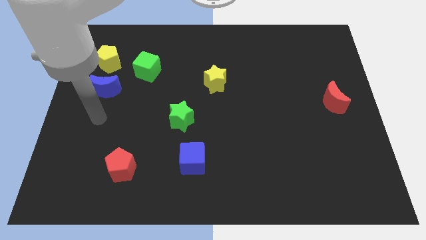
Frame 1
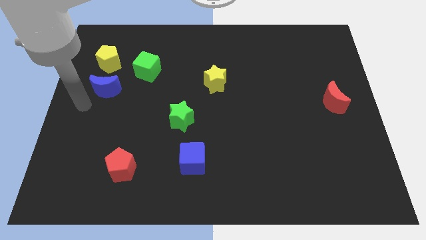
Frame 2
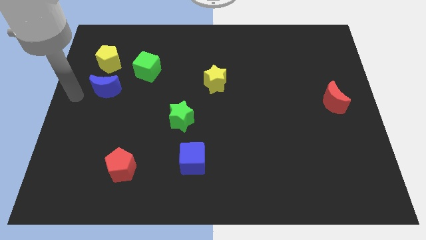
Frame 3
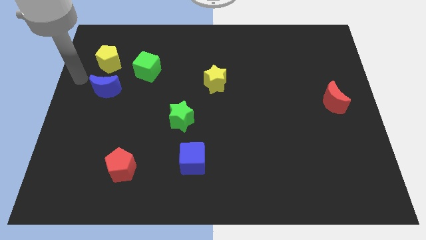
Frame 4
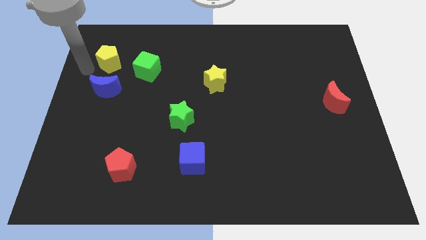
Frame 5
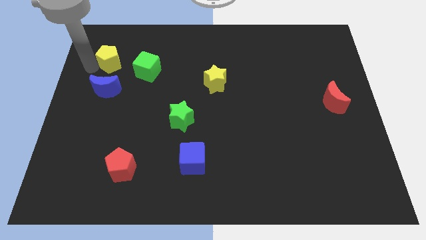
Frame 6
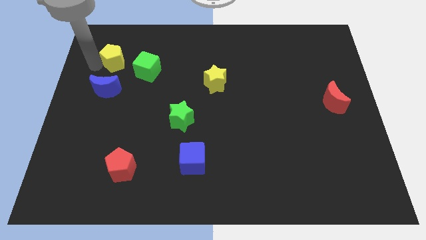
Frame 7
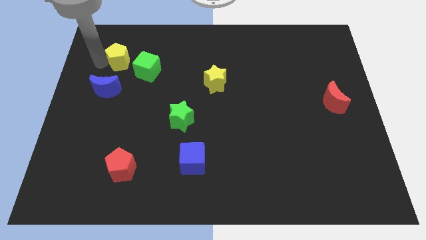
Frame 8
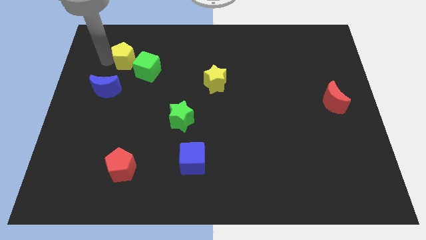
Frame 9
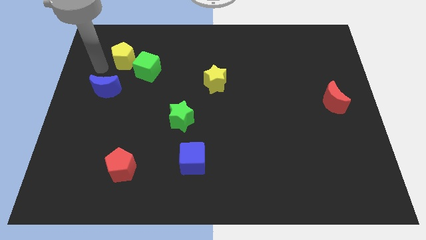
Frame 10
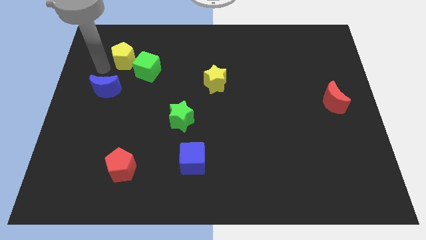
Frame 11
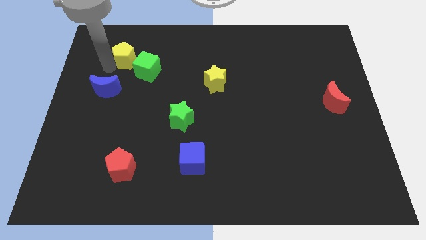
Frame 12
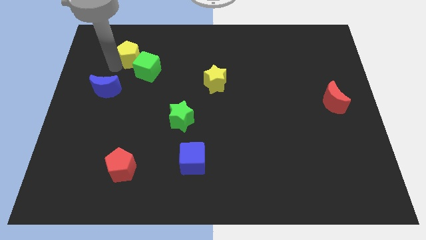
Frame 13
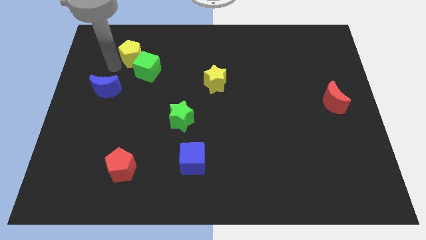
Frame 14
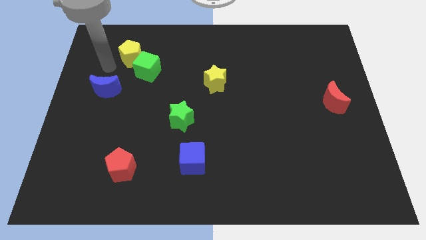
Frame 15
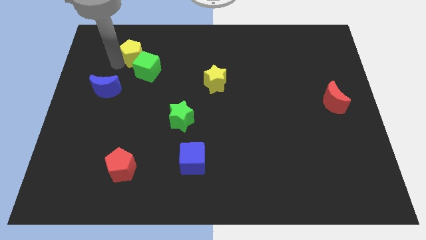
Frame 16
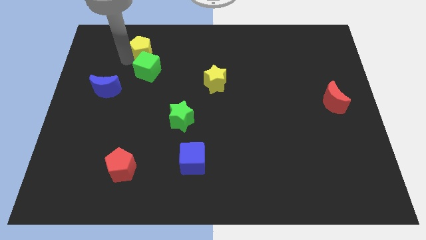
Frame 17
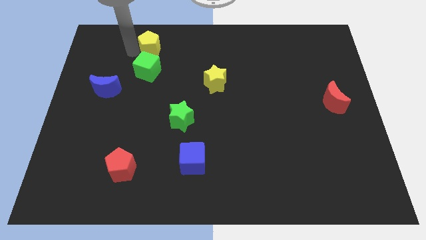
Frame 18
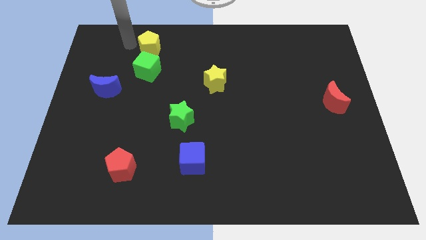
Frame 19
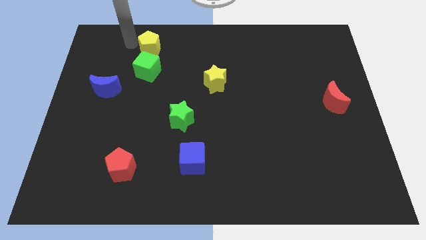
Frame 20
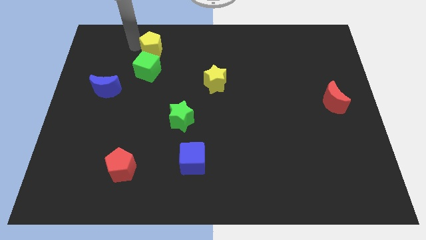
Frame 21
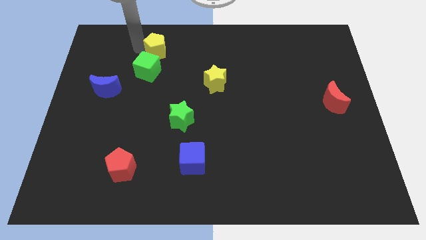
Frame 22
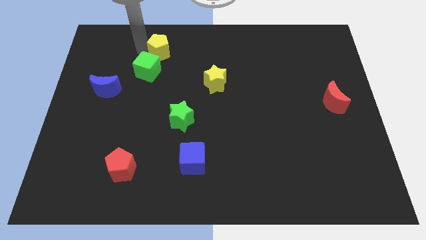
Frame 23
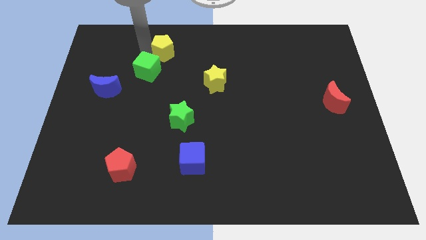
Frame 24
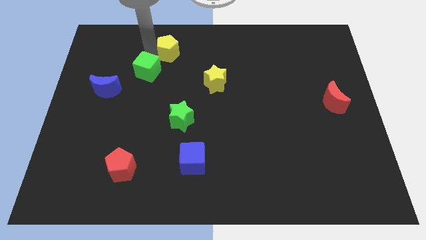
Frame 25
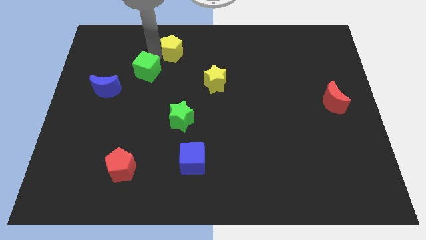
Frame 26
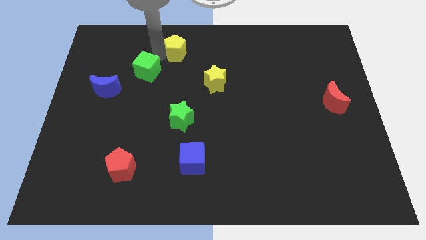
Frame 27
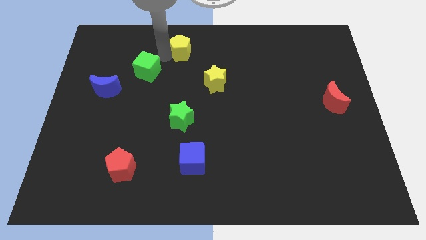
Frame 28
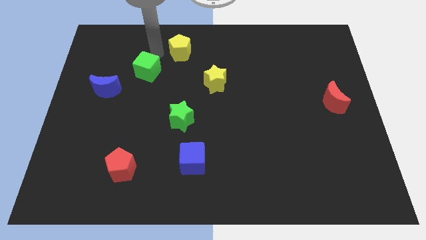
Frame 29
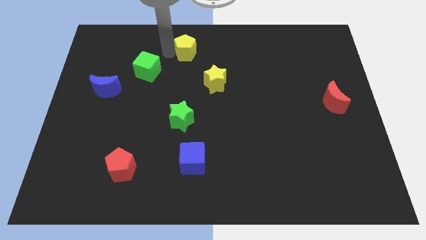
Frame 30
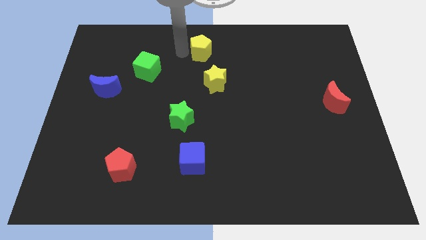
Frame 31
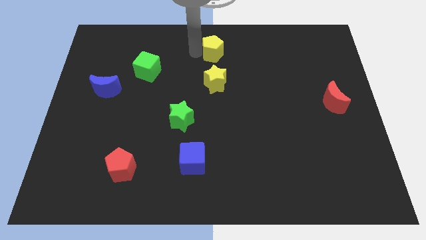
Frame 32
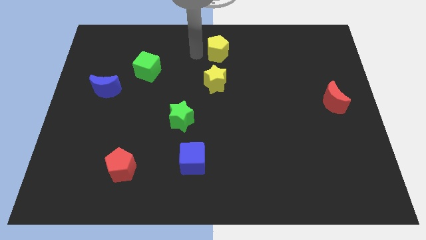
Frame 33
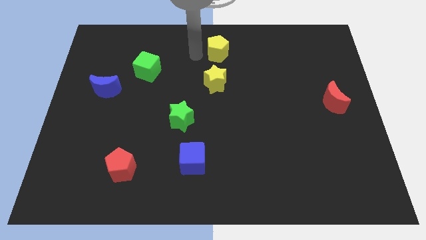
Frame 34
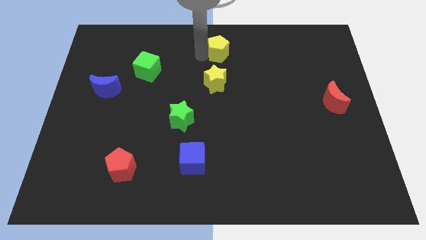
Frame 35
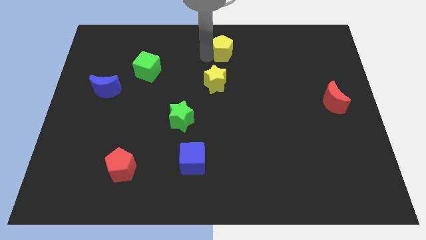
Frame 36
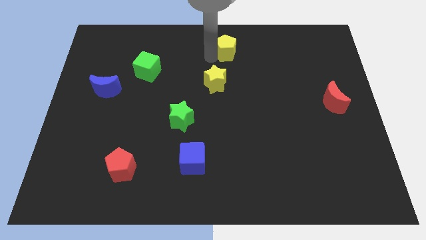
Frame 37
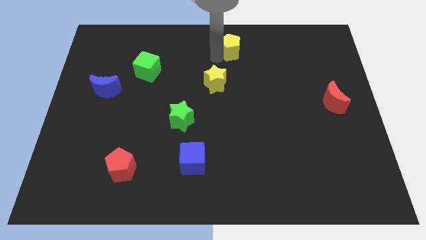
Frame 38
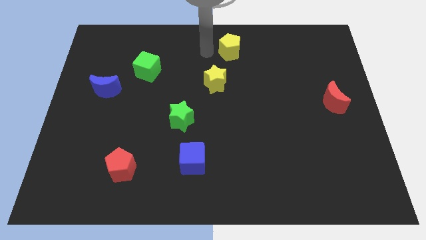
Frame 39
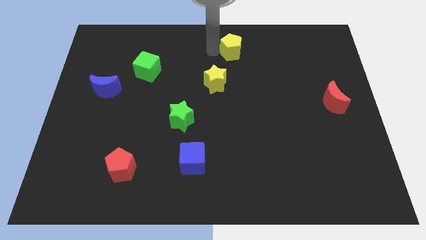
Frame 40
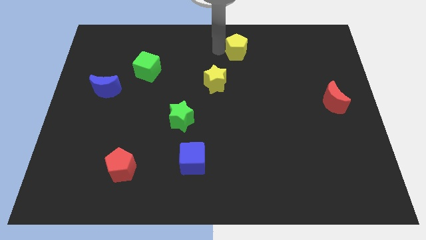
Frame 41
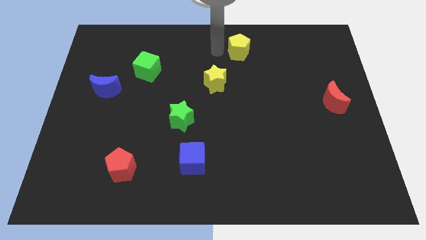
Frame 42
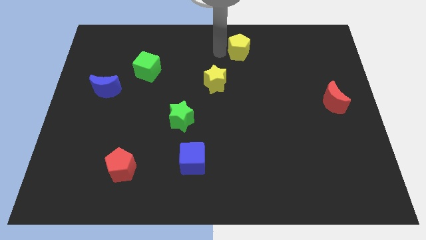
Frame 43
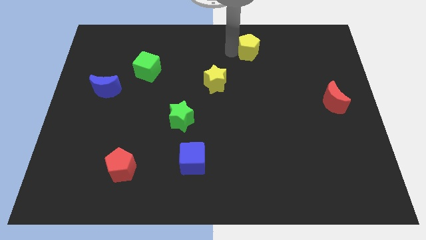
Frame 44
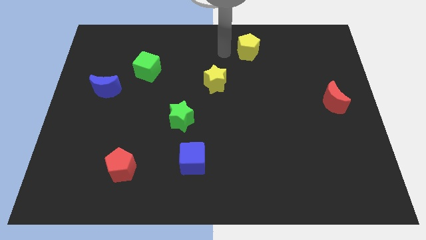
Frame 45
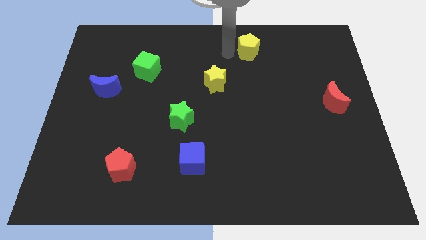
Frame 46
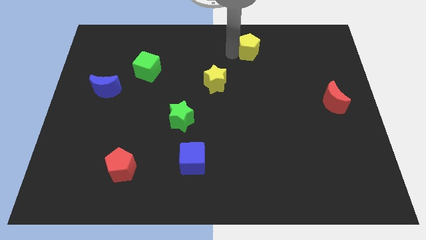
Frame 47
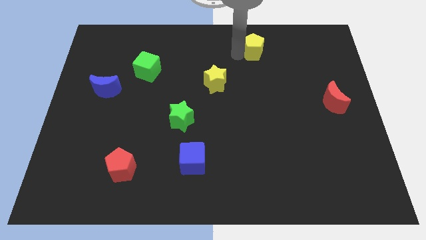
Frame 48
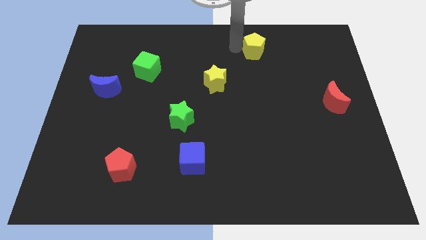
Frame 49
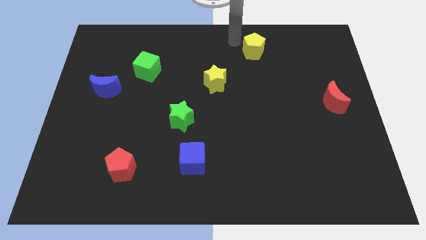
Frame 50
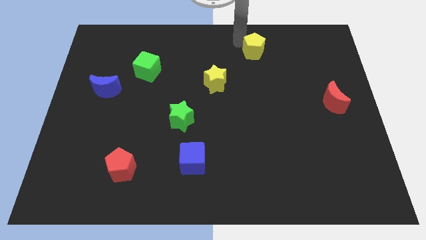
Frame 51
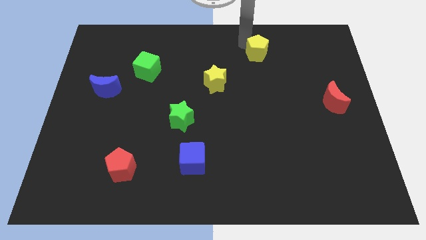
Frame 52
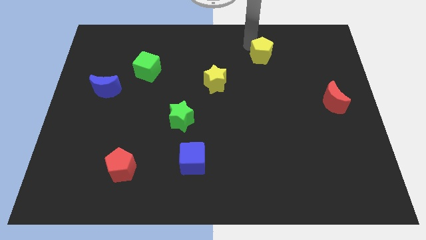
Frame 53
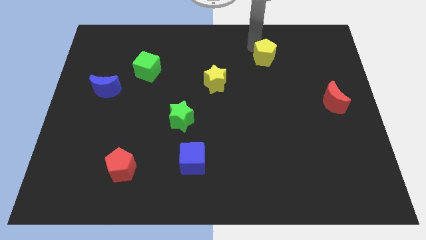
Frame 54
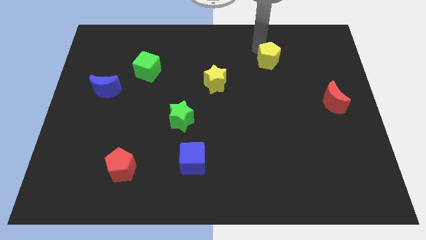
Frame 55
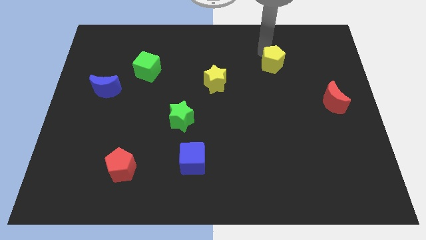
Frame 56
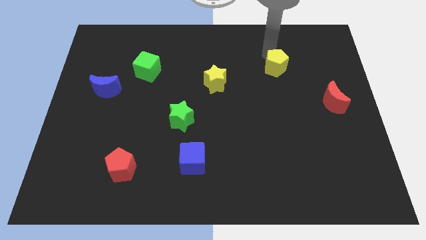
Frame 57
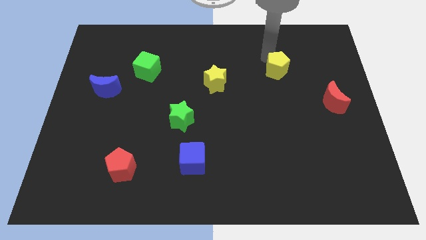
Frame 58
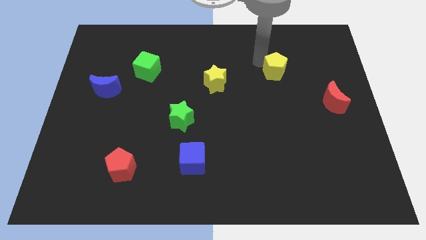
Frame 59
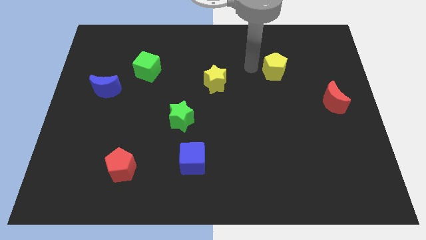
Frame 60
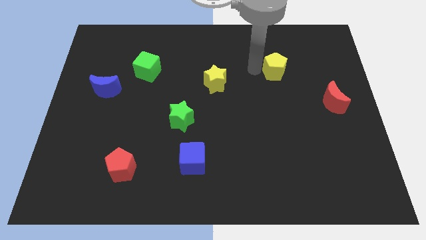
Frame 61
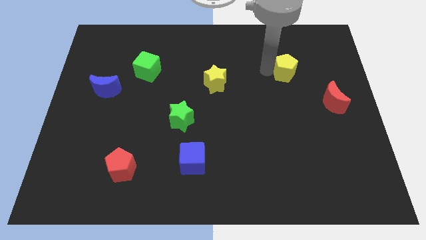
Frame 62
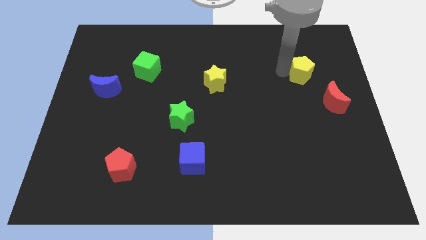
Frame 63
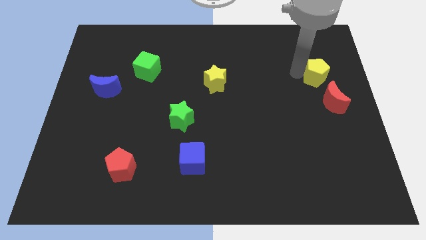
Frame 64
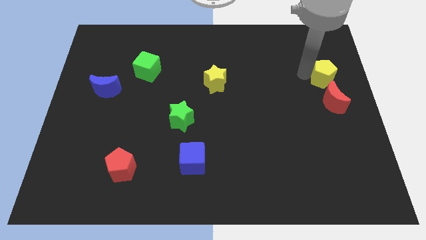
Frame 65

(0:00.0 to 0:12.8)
put the yellow pentagon to the center right
